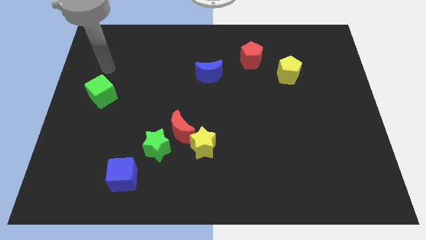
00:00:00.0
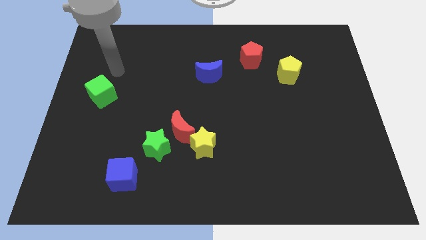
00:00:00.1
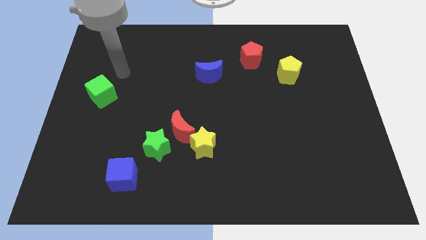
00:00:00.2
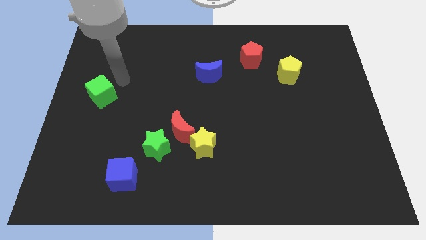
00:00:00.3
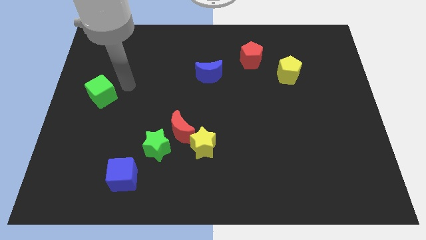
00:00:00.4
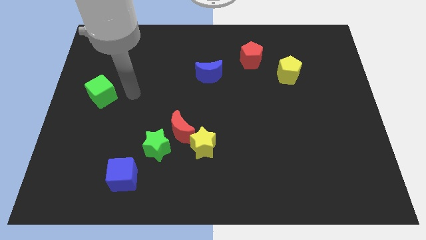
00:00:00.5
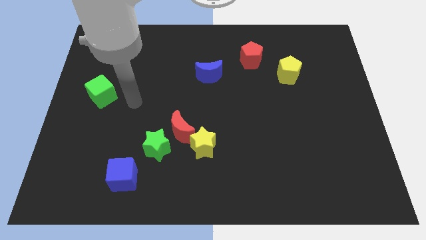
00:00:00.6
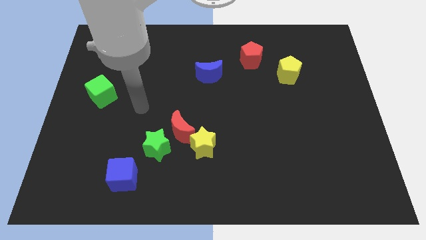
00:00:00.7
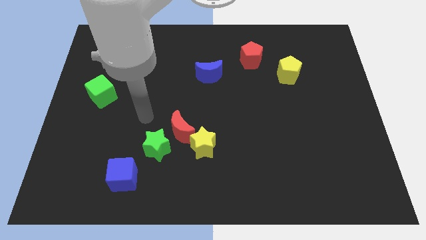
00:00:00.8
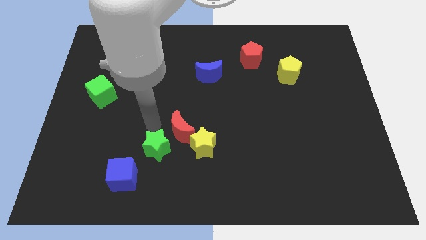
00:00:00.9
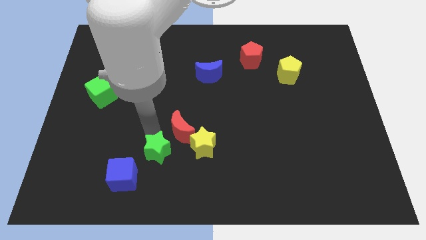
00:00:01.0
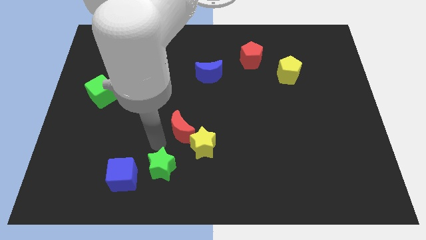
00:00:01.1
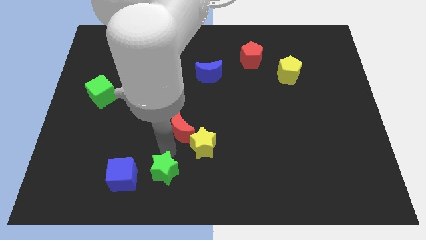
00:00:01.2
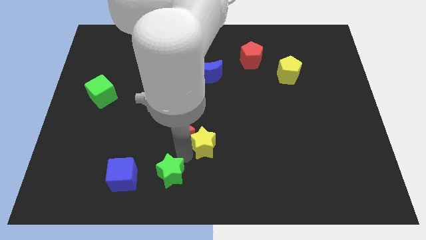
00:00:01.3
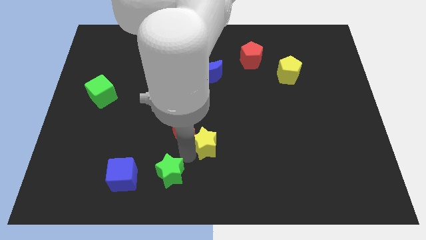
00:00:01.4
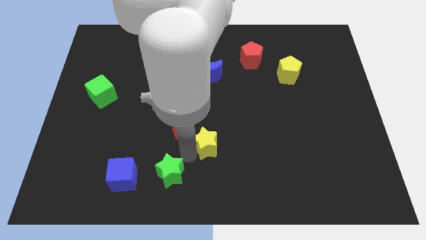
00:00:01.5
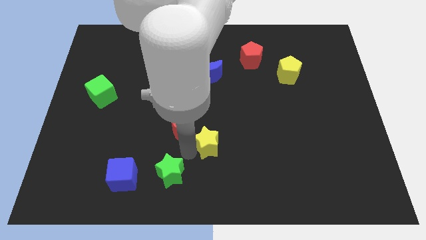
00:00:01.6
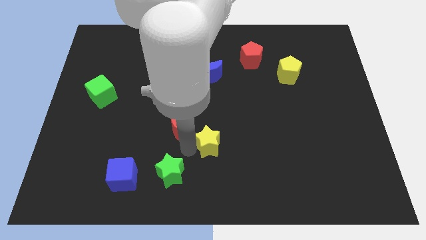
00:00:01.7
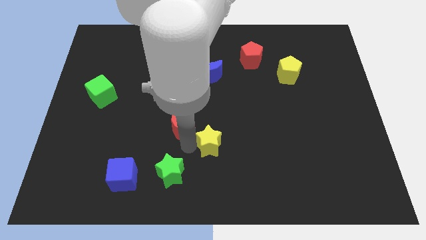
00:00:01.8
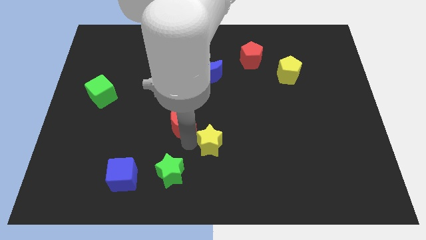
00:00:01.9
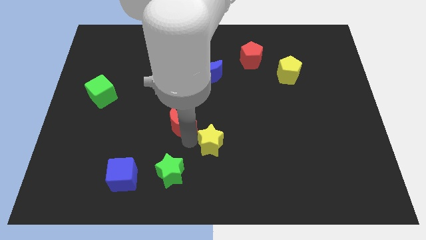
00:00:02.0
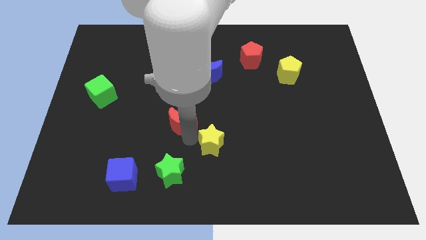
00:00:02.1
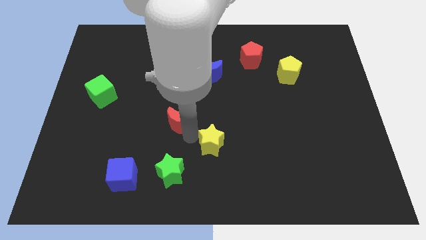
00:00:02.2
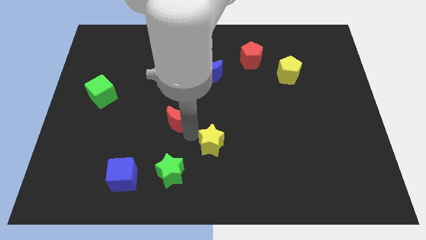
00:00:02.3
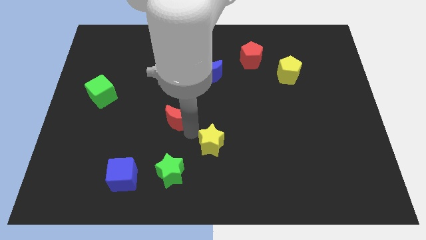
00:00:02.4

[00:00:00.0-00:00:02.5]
separate the red moon from the green star and yellow star

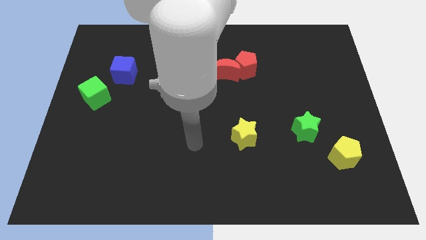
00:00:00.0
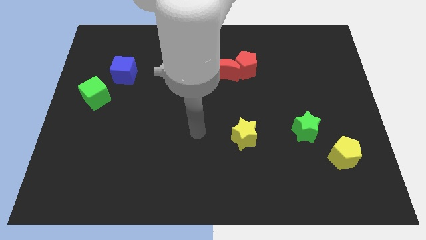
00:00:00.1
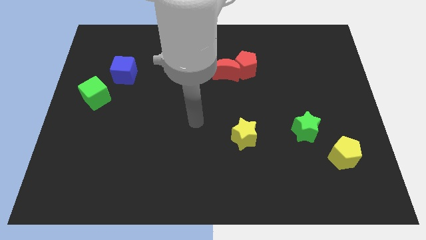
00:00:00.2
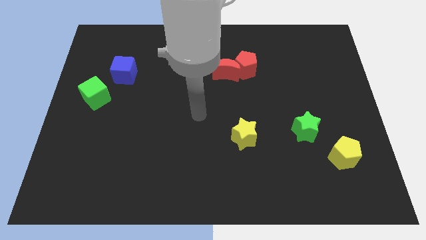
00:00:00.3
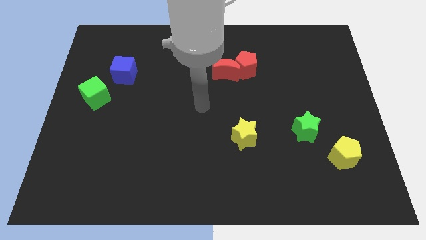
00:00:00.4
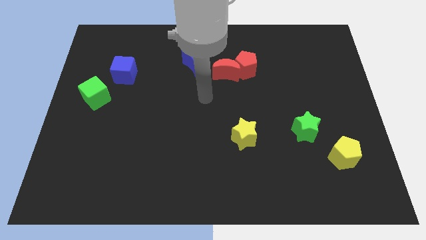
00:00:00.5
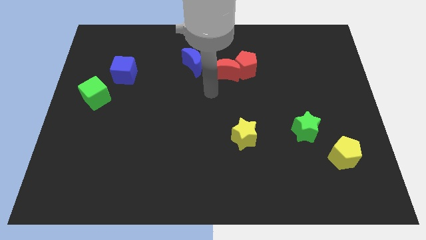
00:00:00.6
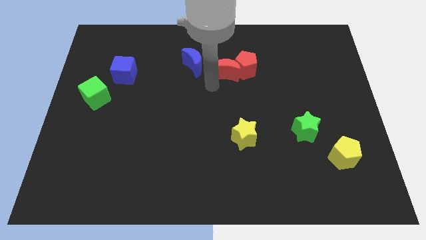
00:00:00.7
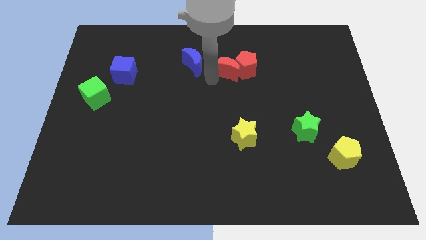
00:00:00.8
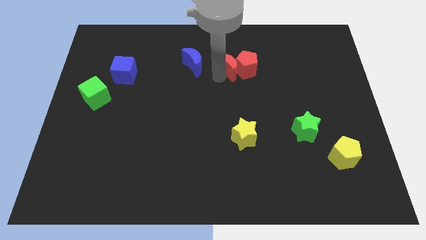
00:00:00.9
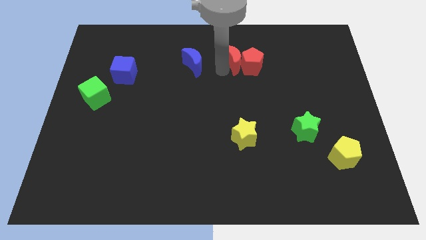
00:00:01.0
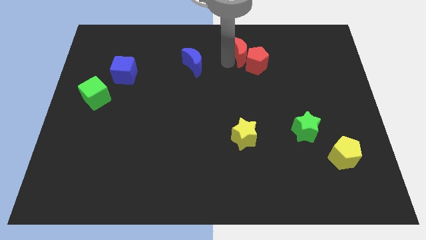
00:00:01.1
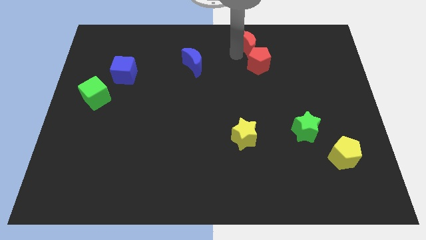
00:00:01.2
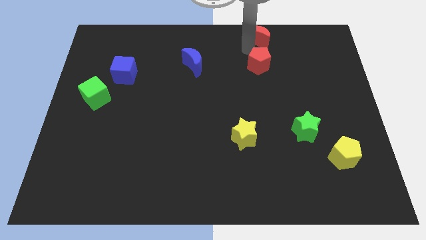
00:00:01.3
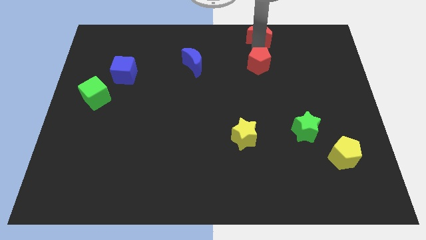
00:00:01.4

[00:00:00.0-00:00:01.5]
pull the red pentagon apart from the red moon

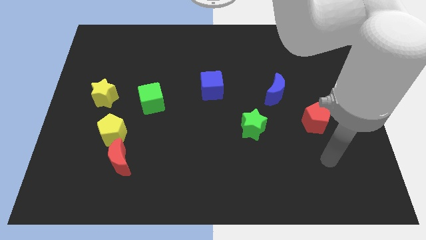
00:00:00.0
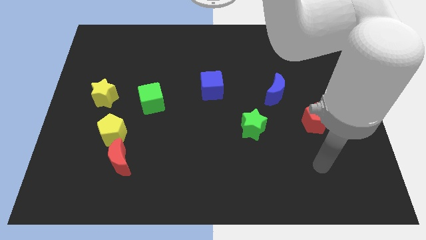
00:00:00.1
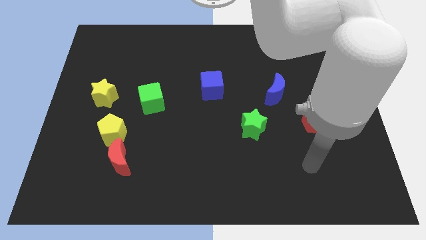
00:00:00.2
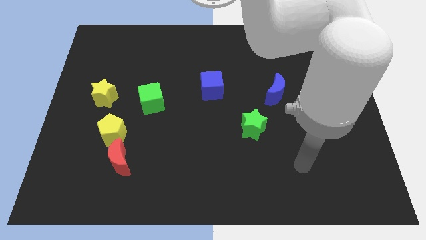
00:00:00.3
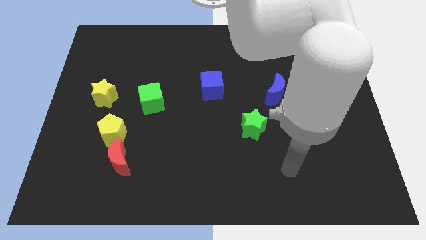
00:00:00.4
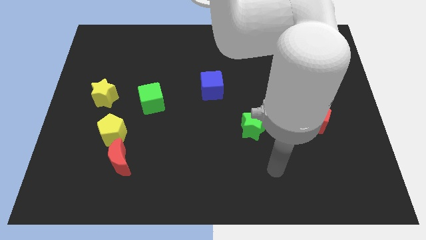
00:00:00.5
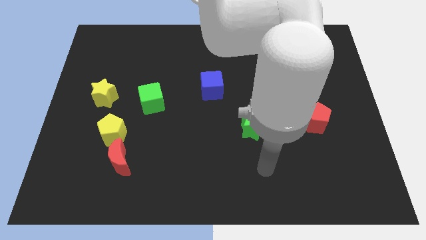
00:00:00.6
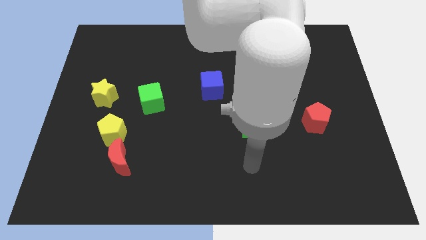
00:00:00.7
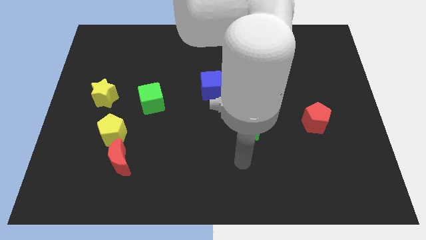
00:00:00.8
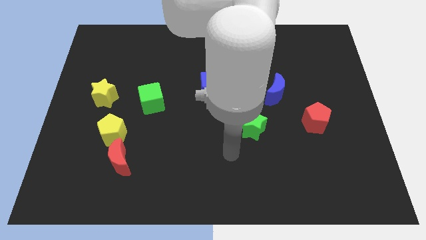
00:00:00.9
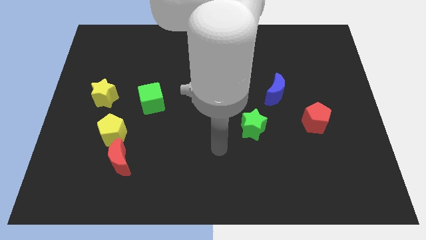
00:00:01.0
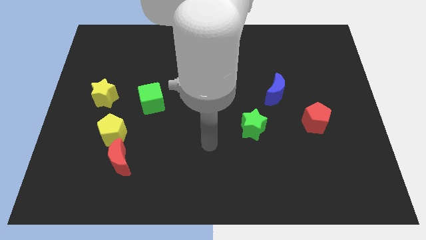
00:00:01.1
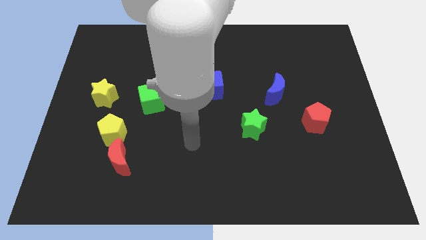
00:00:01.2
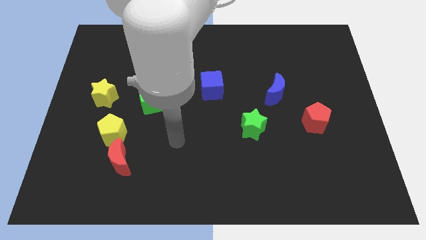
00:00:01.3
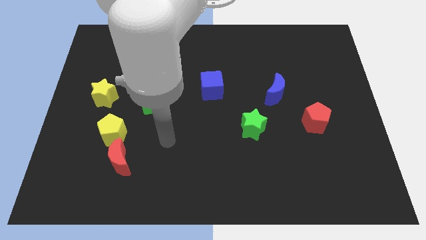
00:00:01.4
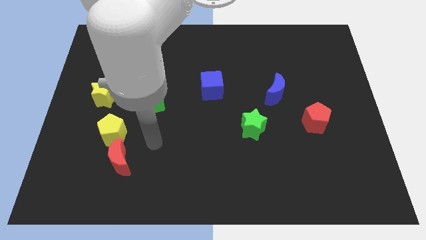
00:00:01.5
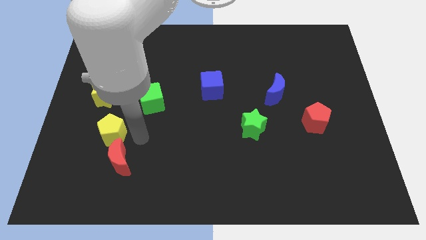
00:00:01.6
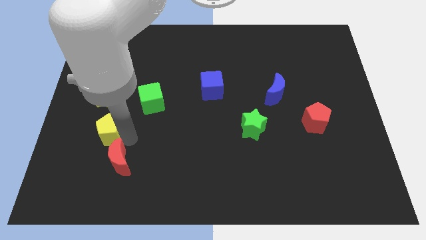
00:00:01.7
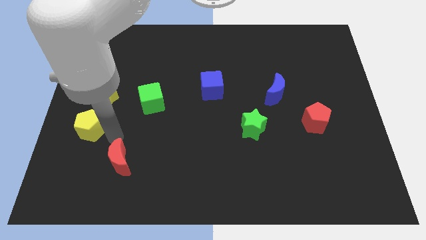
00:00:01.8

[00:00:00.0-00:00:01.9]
separate the red moon from the yellow pentagon

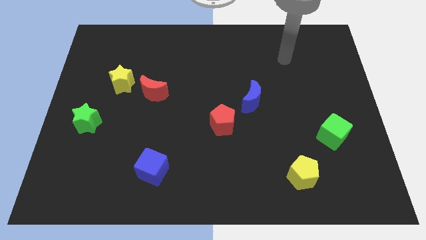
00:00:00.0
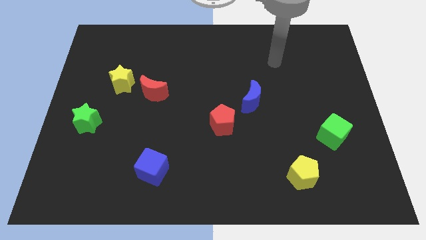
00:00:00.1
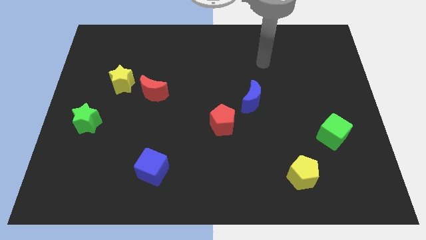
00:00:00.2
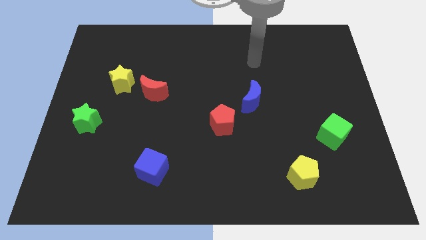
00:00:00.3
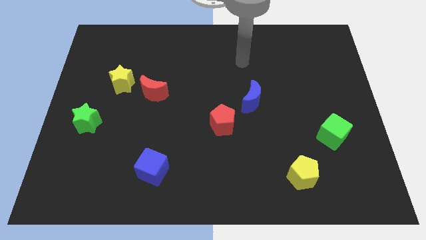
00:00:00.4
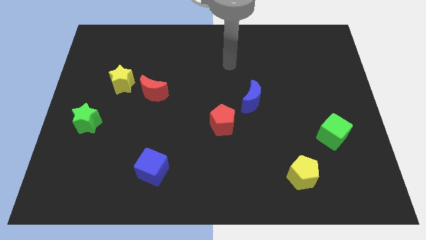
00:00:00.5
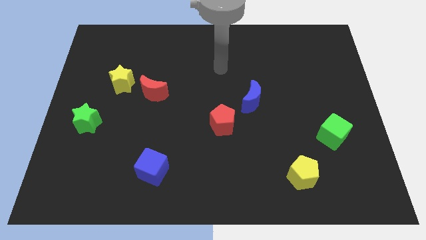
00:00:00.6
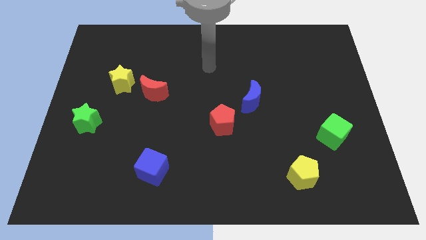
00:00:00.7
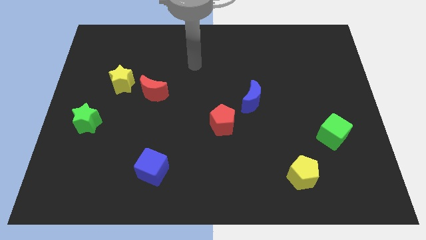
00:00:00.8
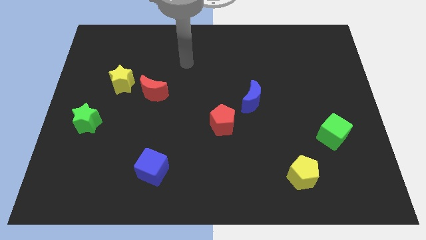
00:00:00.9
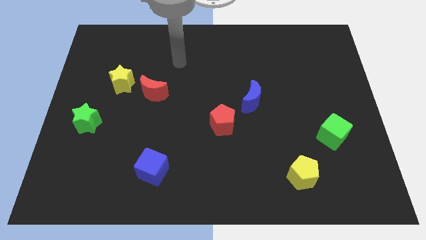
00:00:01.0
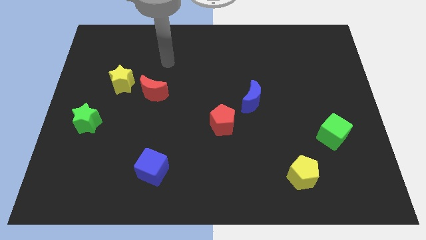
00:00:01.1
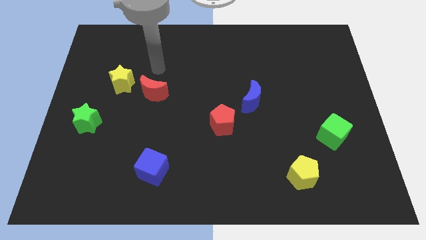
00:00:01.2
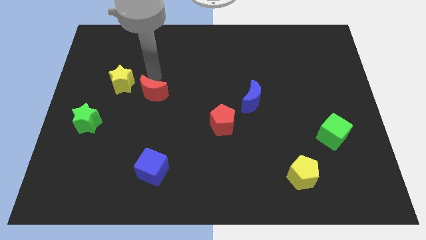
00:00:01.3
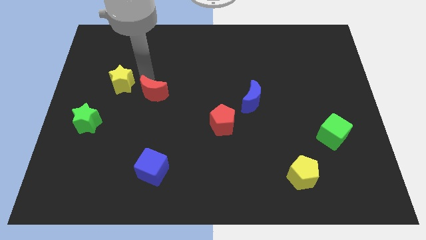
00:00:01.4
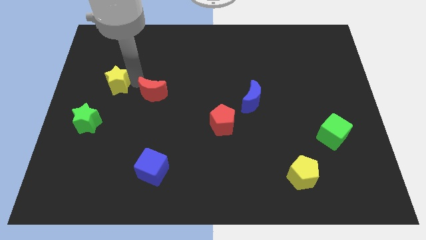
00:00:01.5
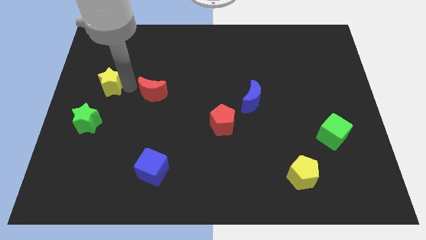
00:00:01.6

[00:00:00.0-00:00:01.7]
move the red moon away from the yellow star

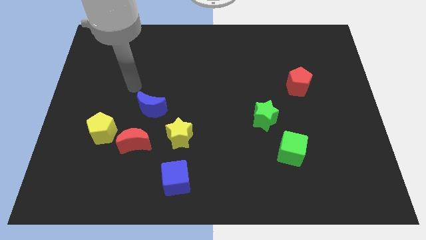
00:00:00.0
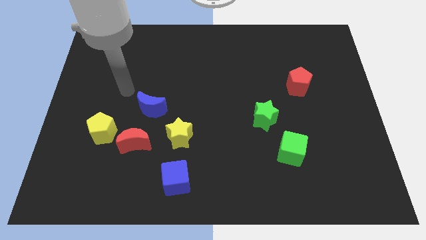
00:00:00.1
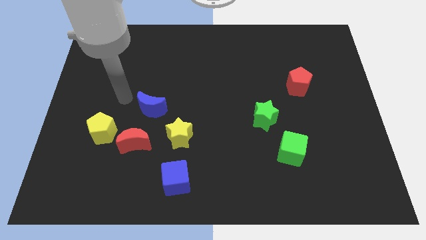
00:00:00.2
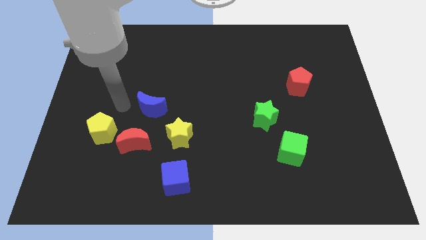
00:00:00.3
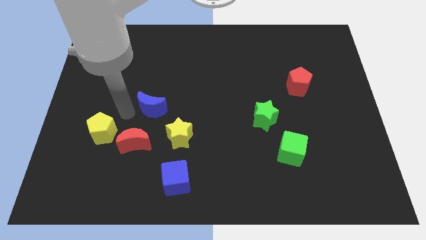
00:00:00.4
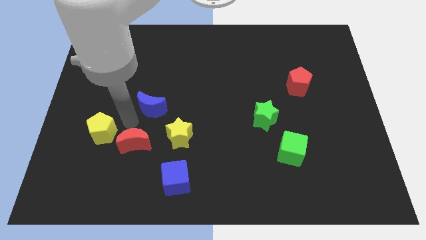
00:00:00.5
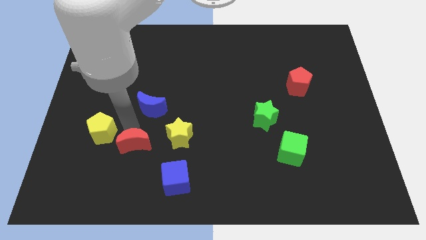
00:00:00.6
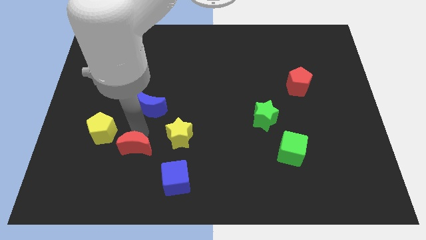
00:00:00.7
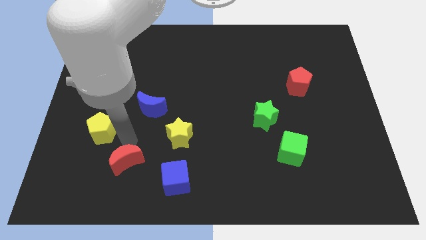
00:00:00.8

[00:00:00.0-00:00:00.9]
separate the yellow pentagon from the red moon

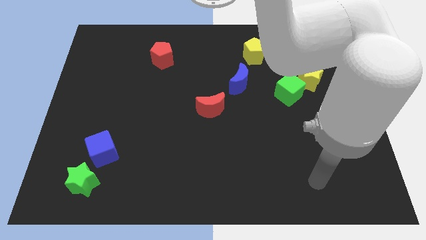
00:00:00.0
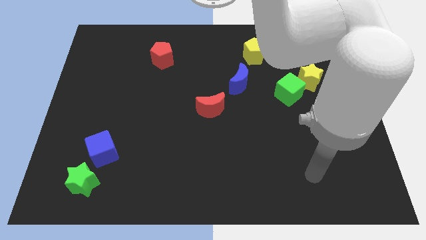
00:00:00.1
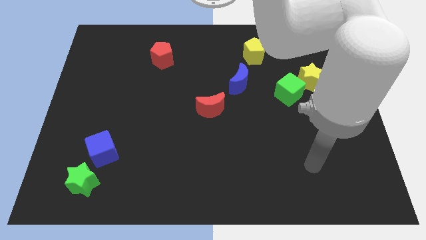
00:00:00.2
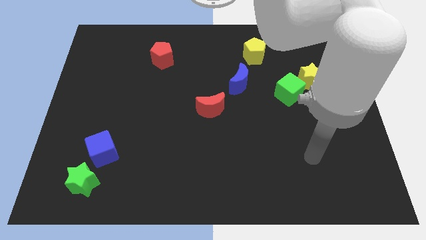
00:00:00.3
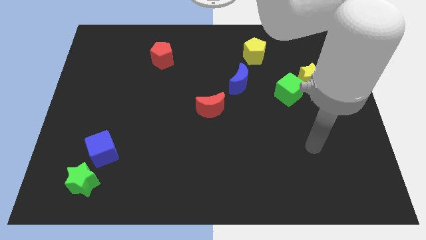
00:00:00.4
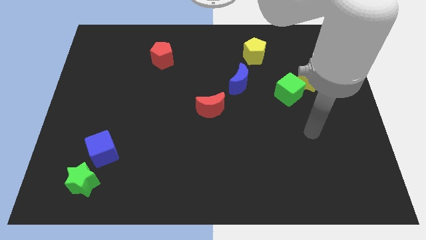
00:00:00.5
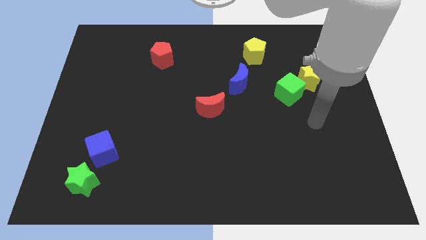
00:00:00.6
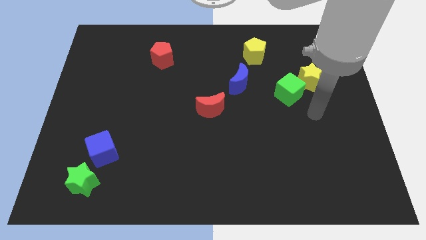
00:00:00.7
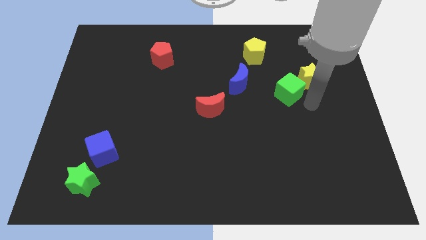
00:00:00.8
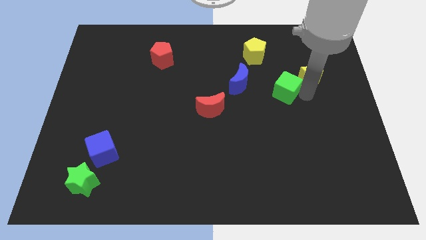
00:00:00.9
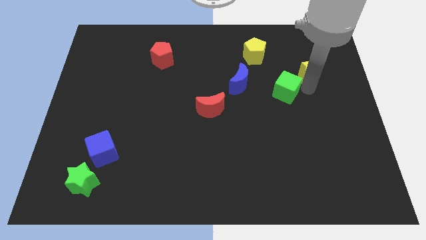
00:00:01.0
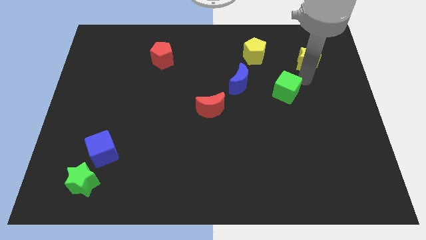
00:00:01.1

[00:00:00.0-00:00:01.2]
pull the green cube apart from the yellow star
